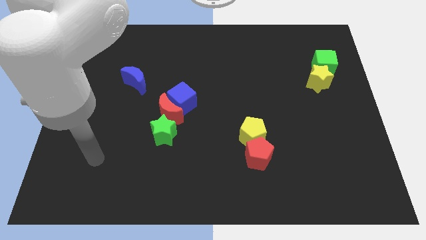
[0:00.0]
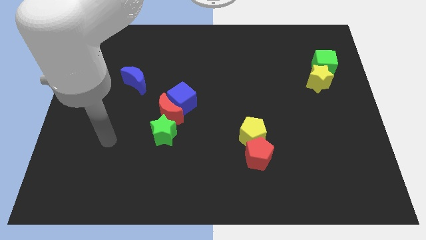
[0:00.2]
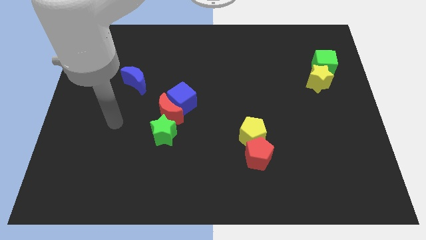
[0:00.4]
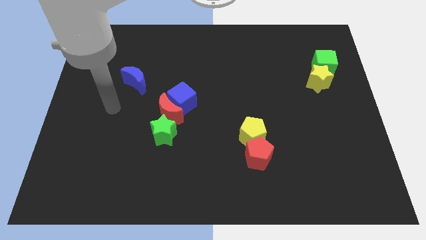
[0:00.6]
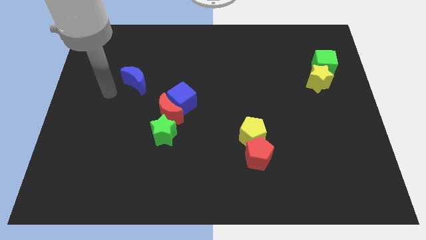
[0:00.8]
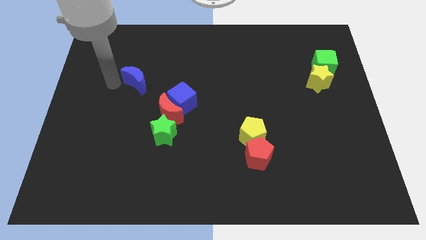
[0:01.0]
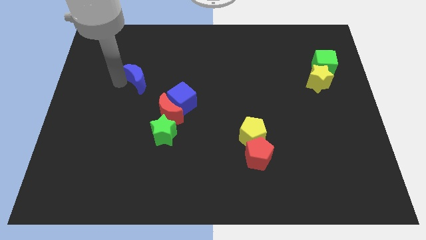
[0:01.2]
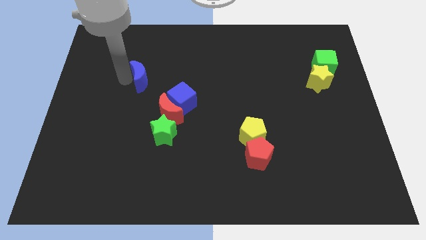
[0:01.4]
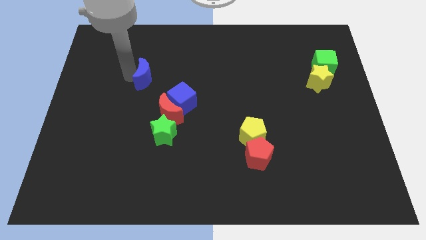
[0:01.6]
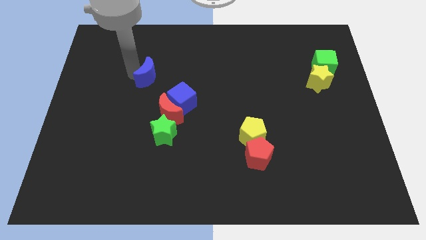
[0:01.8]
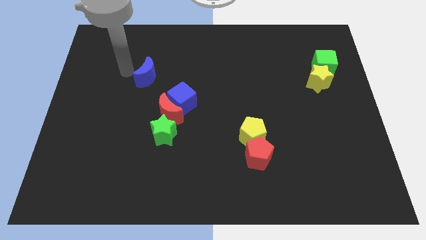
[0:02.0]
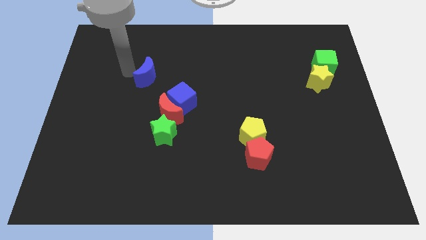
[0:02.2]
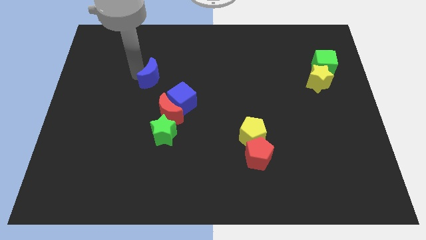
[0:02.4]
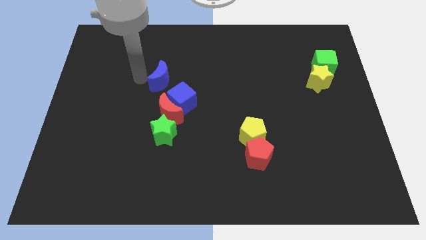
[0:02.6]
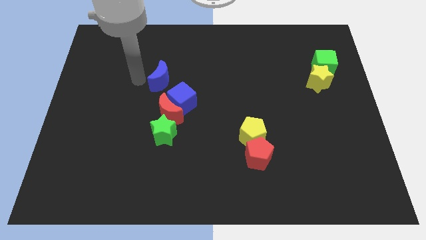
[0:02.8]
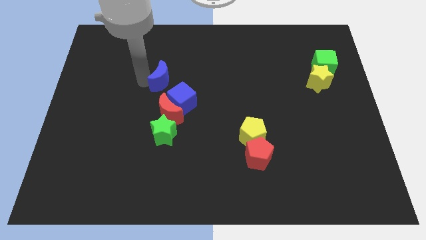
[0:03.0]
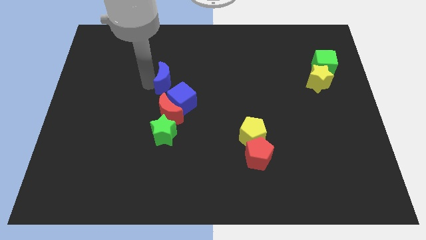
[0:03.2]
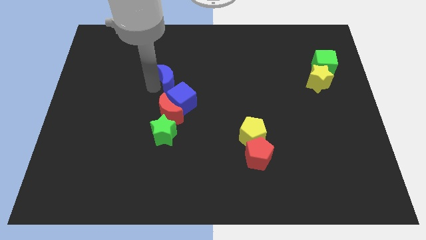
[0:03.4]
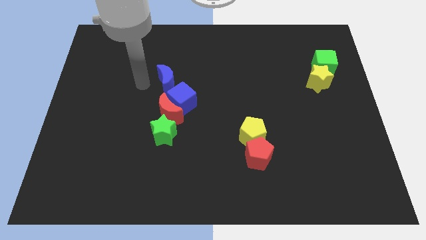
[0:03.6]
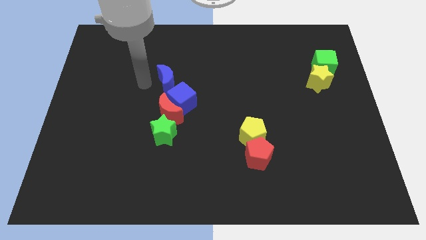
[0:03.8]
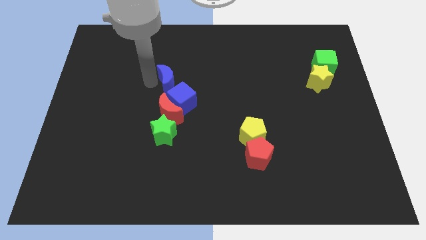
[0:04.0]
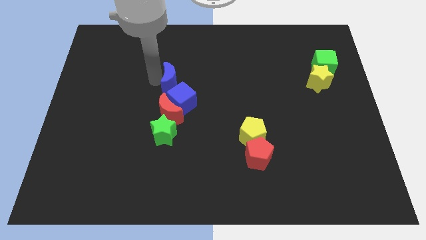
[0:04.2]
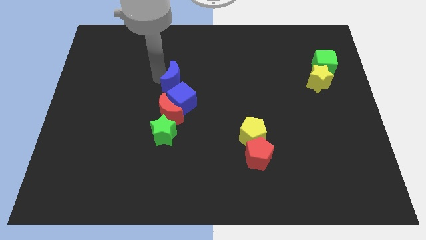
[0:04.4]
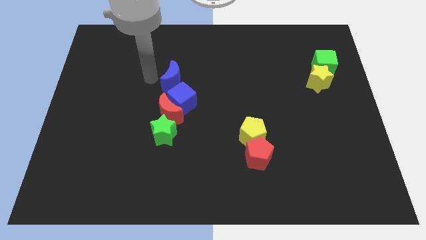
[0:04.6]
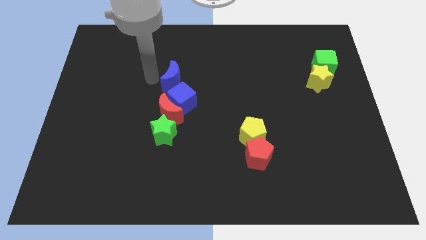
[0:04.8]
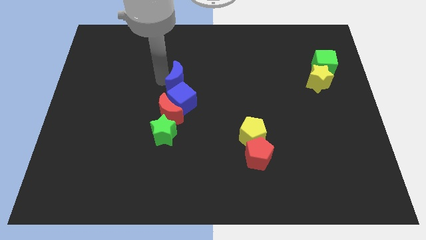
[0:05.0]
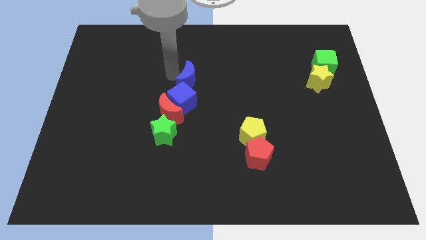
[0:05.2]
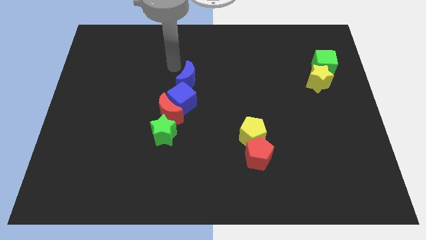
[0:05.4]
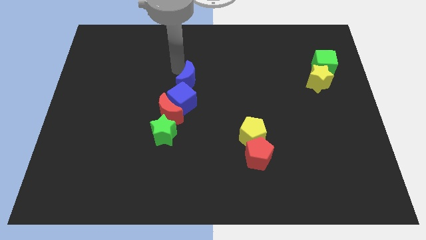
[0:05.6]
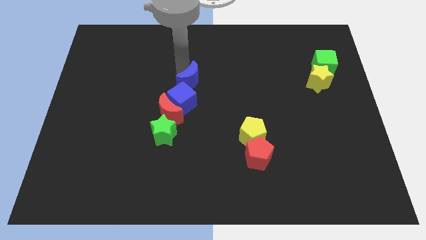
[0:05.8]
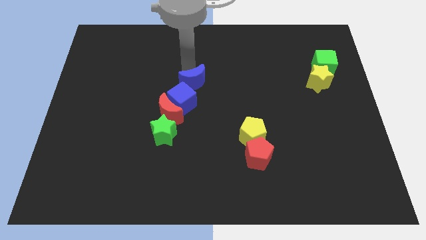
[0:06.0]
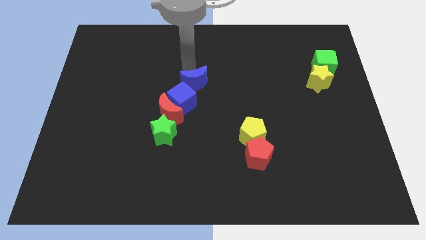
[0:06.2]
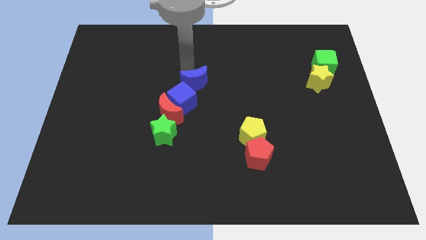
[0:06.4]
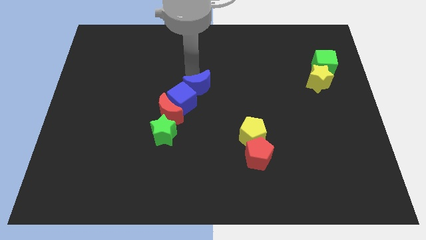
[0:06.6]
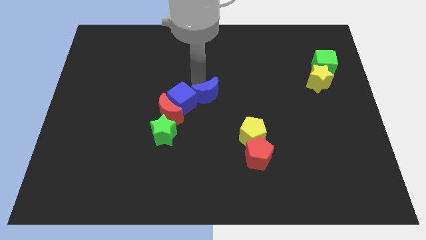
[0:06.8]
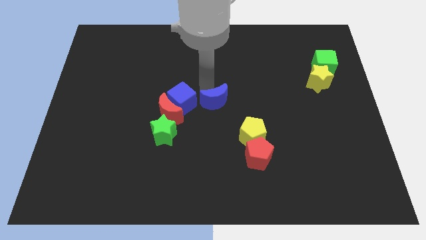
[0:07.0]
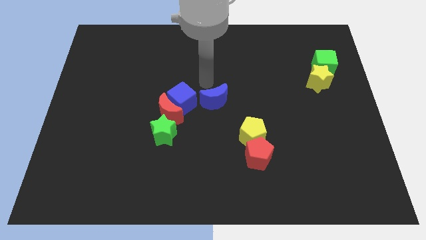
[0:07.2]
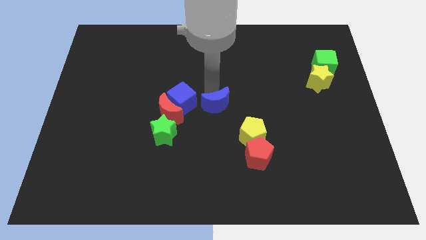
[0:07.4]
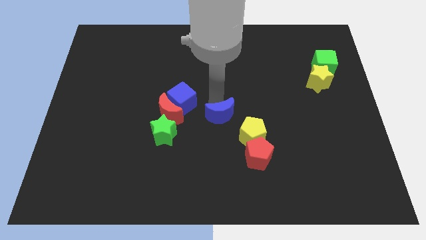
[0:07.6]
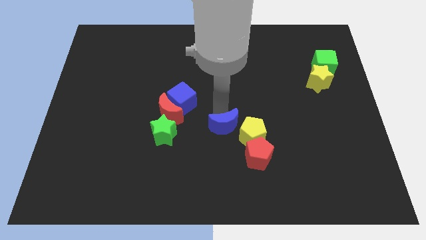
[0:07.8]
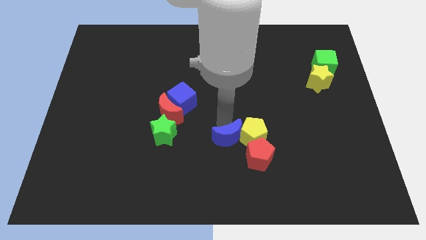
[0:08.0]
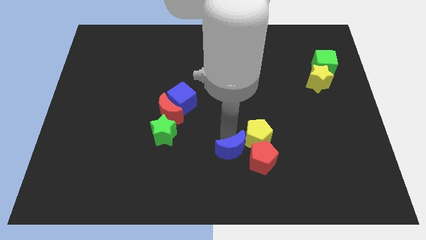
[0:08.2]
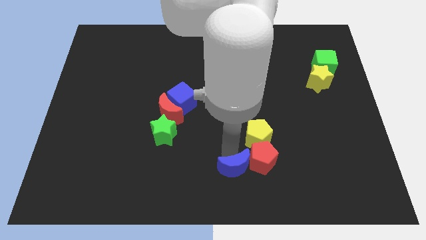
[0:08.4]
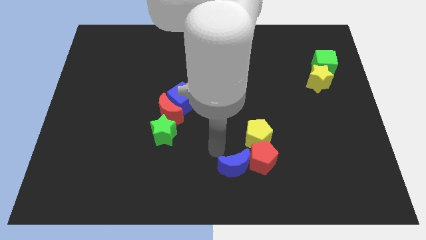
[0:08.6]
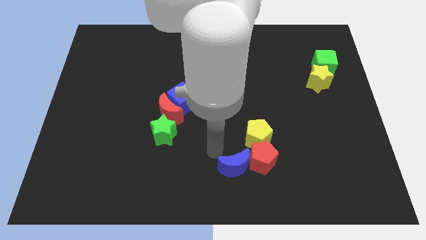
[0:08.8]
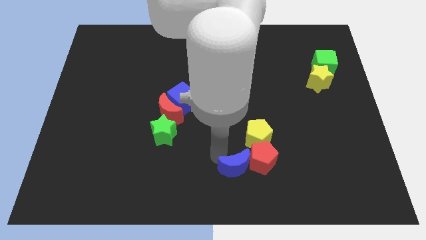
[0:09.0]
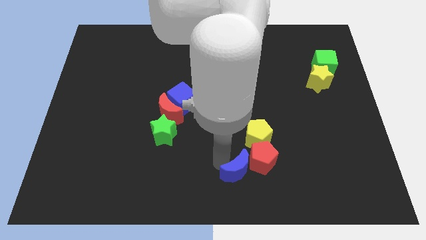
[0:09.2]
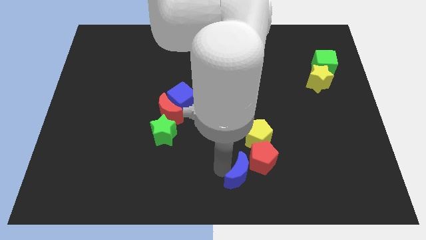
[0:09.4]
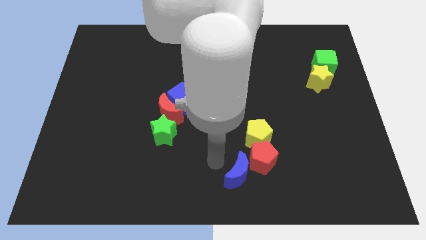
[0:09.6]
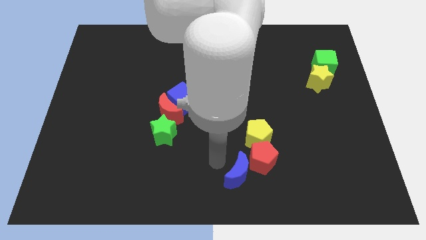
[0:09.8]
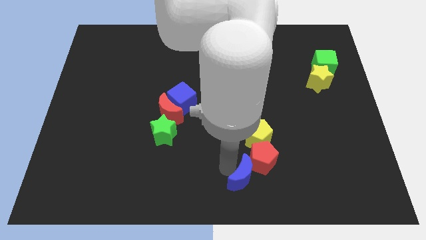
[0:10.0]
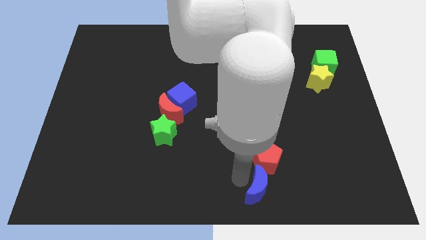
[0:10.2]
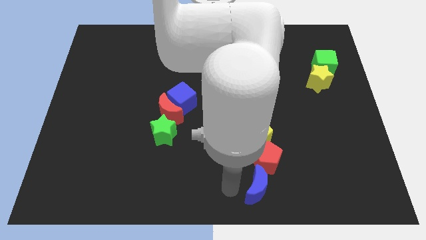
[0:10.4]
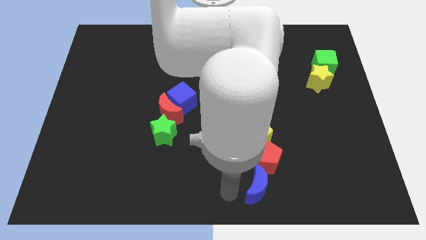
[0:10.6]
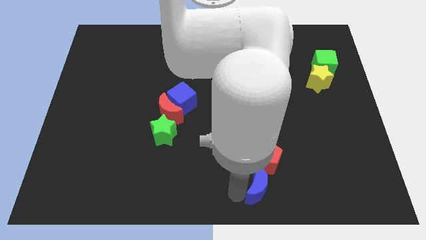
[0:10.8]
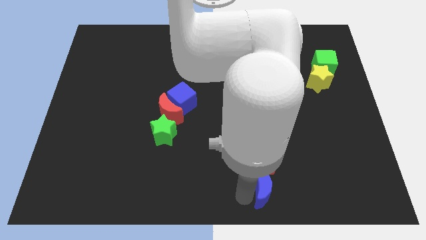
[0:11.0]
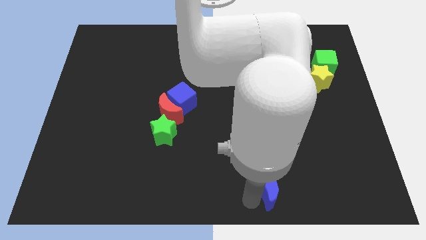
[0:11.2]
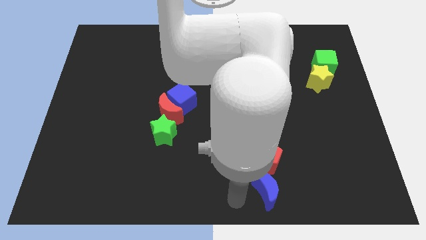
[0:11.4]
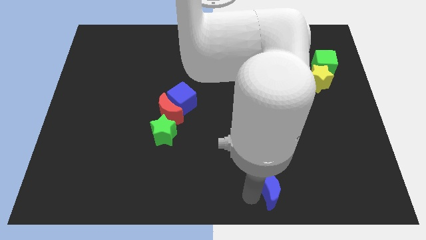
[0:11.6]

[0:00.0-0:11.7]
slide the blue moon to the bottom right of the red pentagon

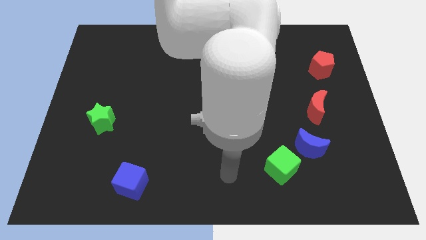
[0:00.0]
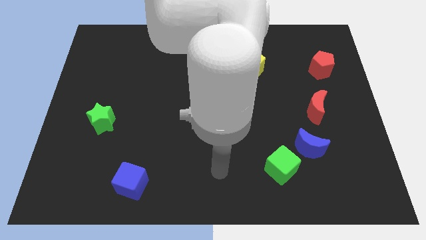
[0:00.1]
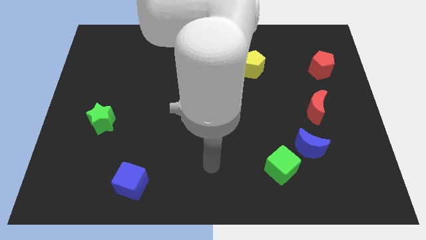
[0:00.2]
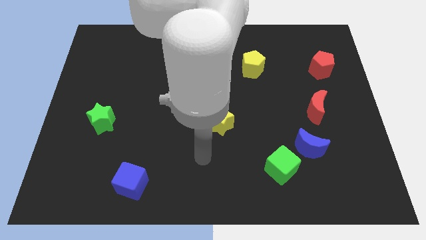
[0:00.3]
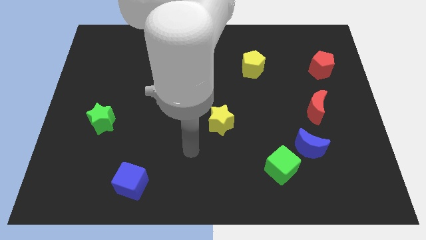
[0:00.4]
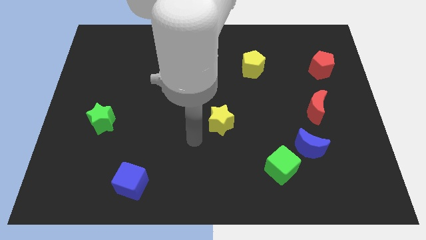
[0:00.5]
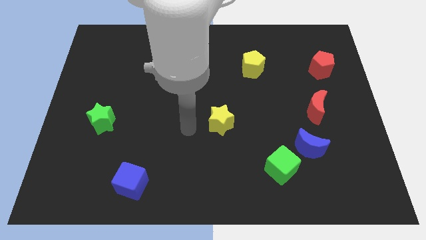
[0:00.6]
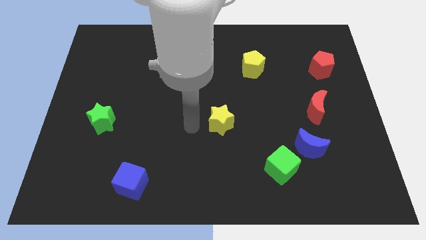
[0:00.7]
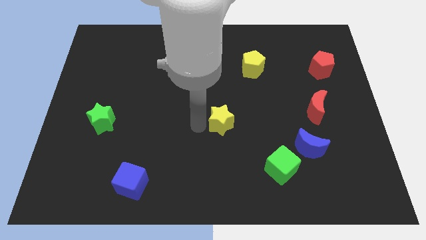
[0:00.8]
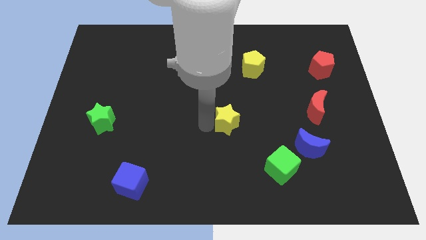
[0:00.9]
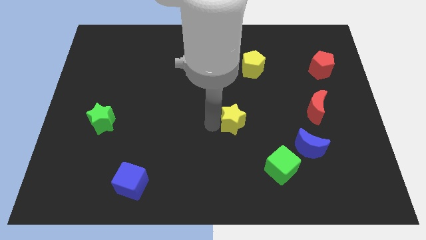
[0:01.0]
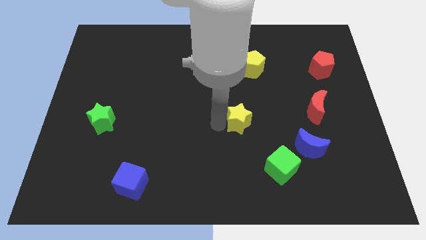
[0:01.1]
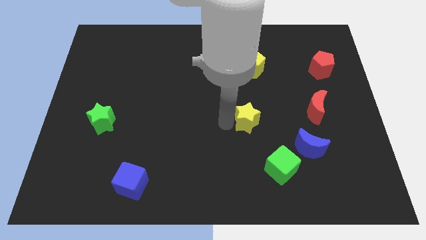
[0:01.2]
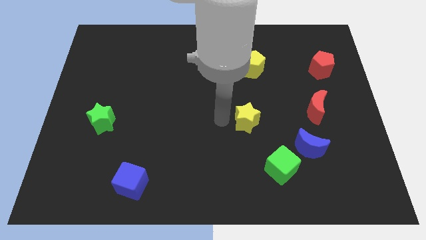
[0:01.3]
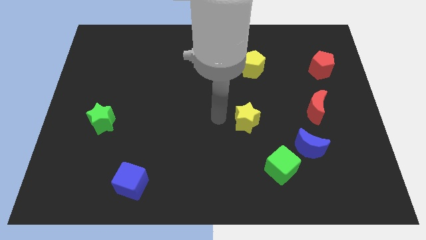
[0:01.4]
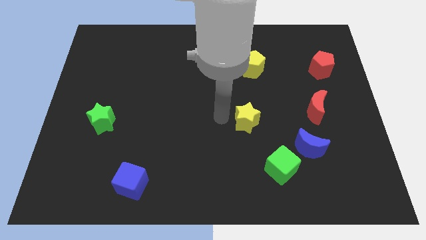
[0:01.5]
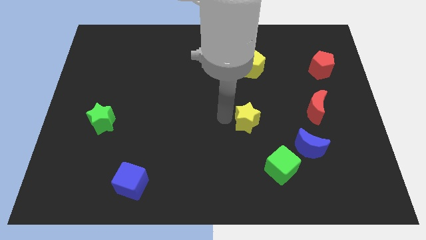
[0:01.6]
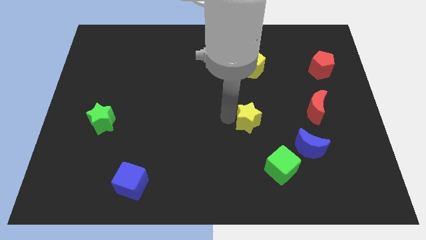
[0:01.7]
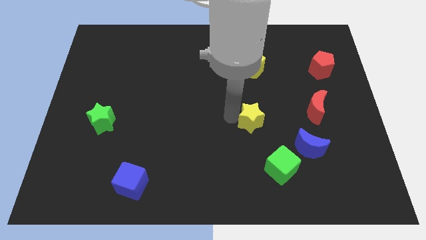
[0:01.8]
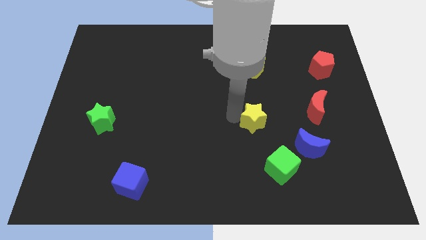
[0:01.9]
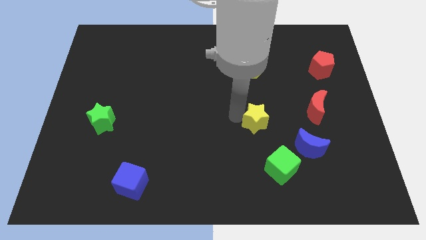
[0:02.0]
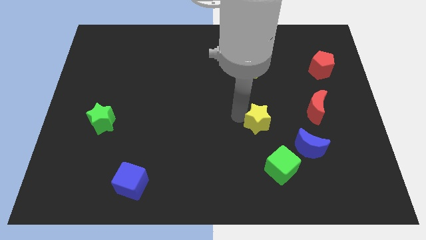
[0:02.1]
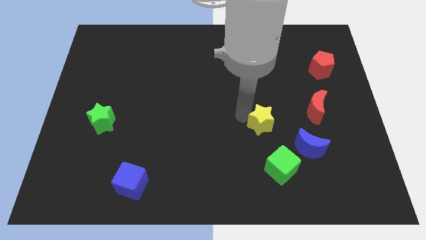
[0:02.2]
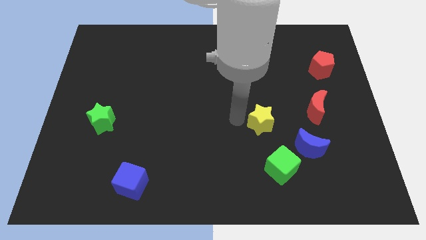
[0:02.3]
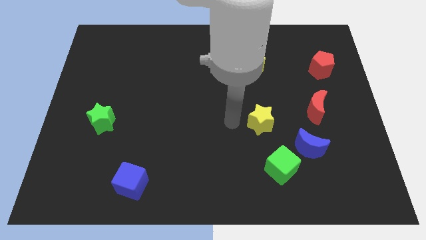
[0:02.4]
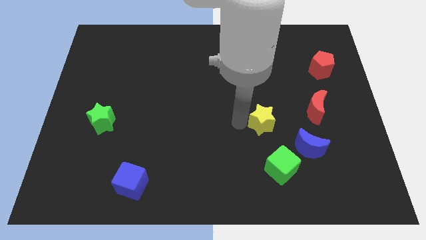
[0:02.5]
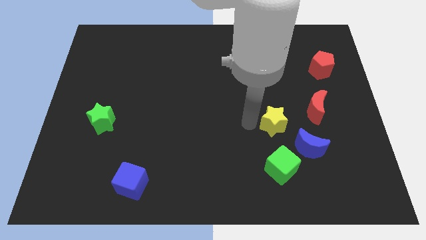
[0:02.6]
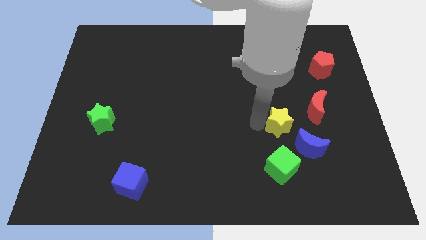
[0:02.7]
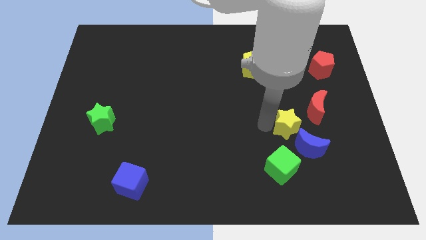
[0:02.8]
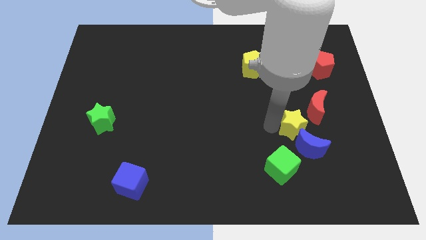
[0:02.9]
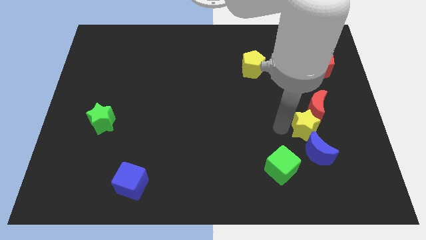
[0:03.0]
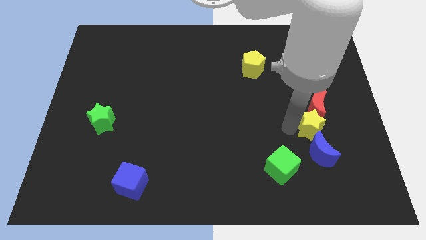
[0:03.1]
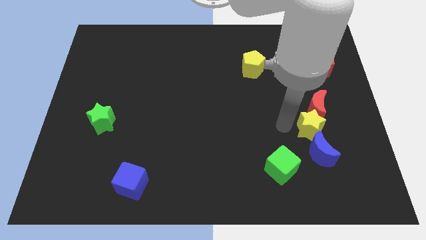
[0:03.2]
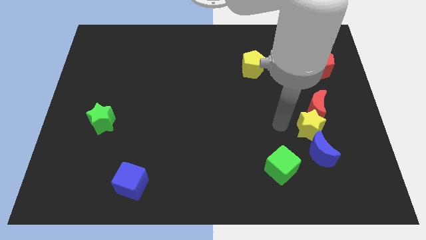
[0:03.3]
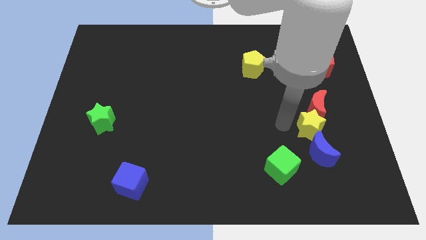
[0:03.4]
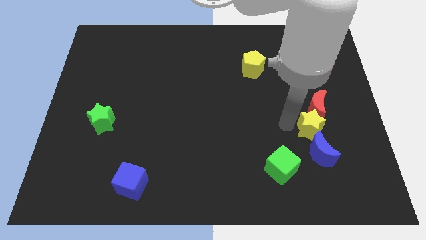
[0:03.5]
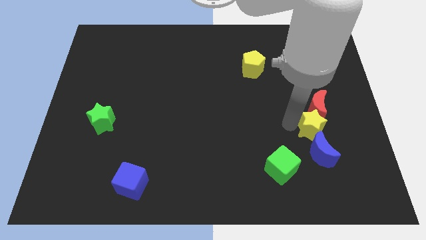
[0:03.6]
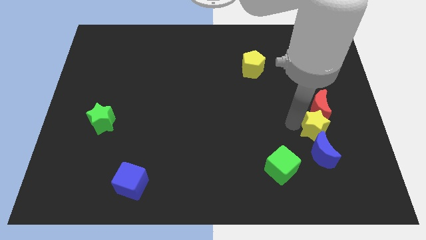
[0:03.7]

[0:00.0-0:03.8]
put the yellow star to the top right side of the blue moon
